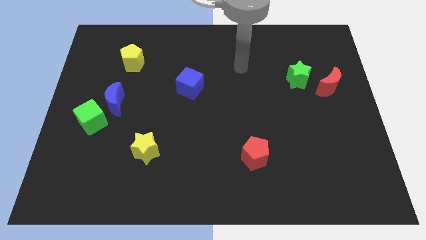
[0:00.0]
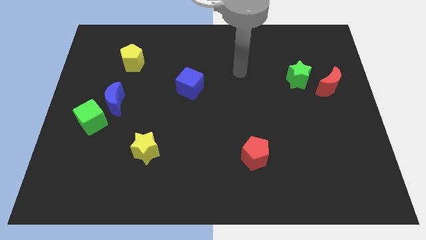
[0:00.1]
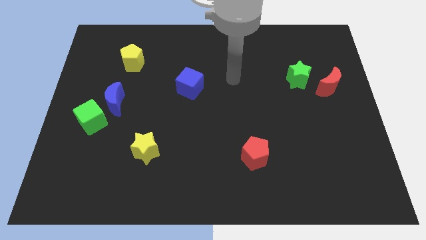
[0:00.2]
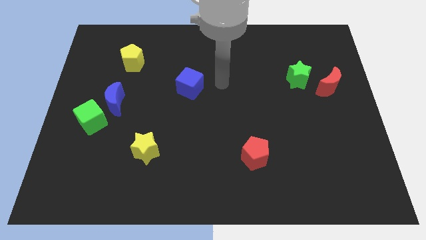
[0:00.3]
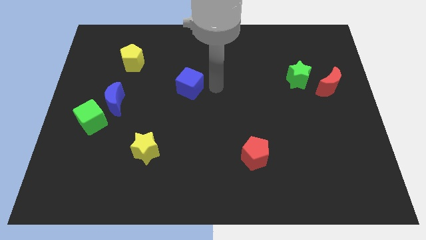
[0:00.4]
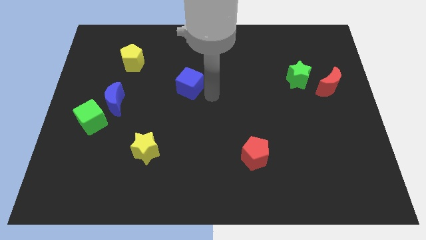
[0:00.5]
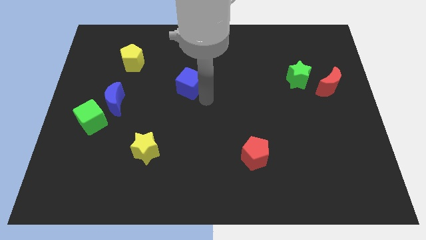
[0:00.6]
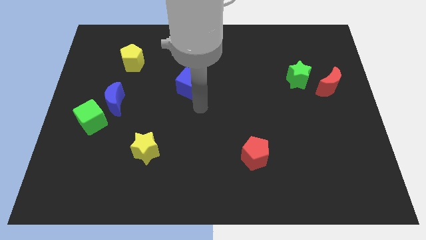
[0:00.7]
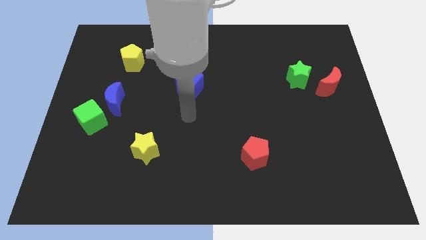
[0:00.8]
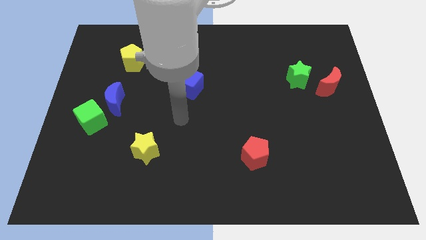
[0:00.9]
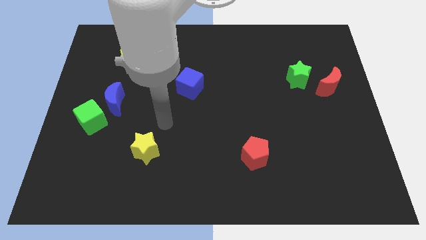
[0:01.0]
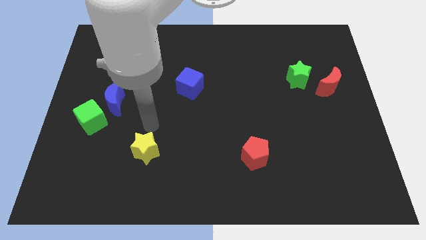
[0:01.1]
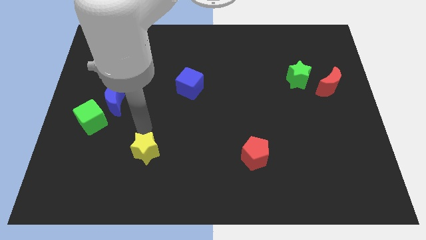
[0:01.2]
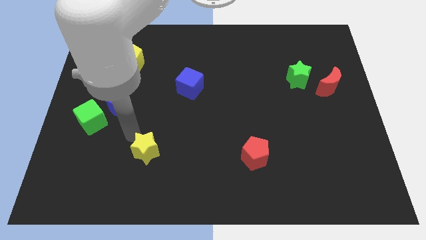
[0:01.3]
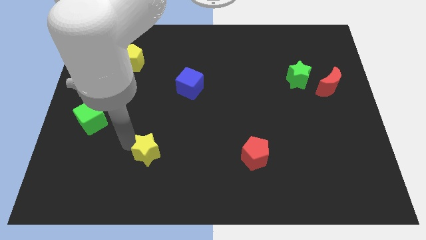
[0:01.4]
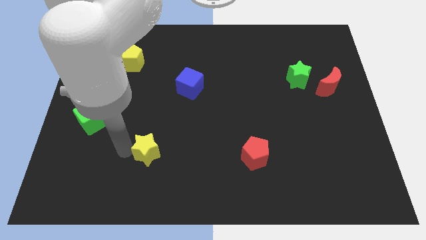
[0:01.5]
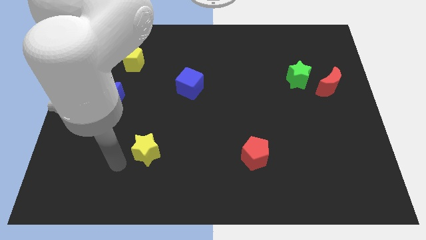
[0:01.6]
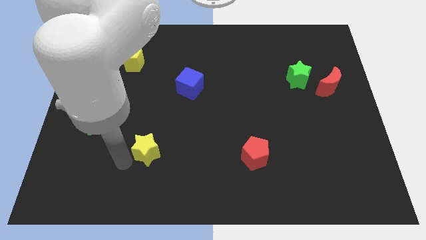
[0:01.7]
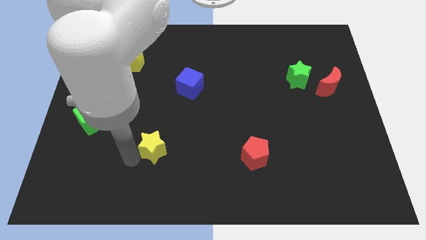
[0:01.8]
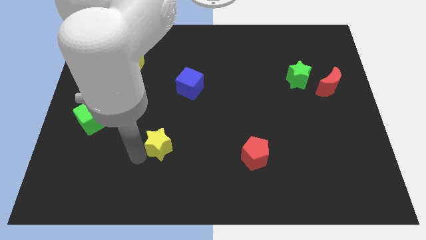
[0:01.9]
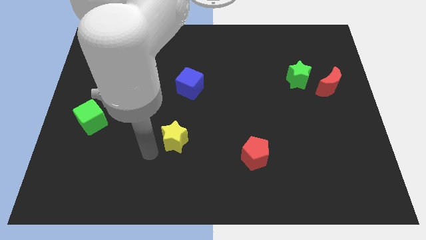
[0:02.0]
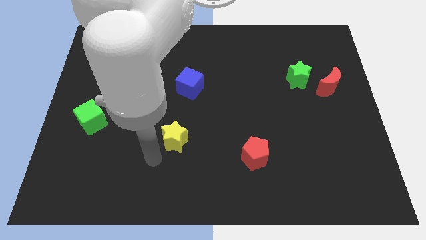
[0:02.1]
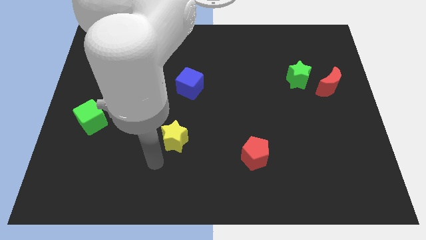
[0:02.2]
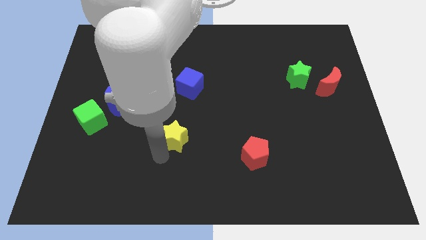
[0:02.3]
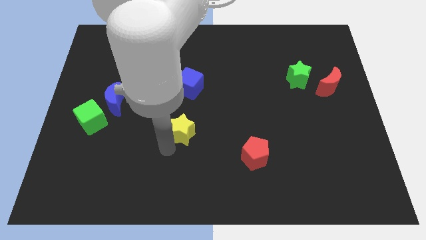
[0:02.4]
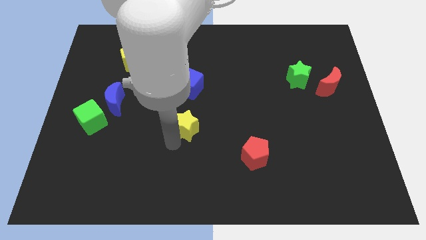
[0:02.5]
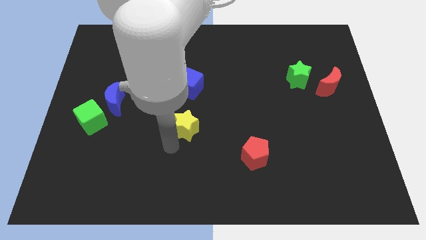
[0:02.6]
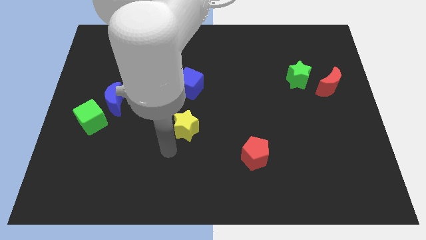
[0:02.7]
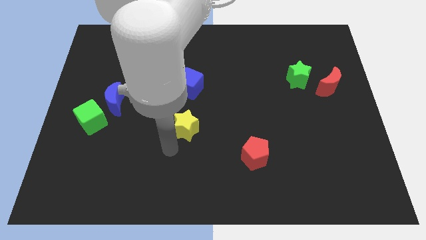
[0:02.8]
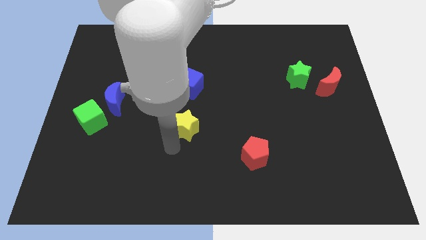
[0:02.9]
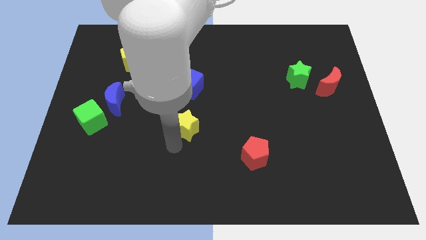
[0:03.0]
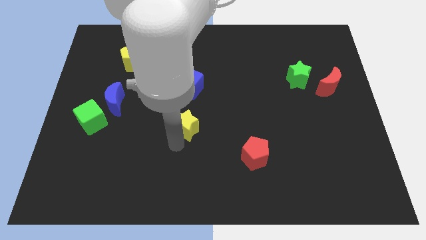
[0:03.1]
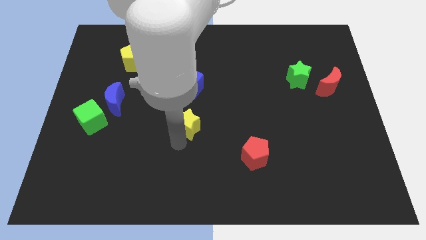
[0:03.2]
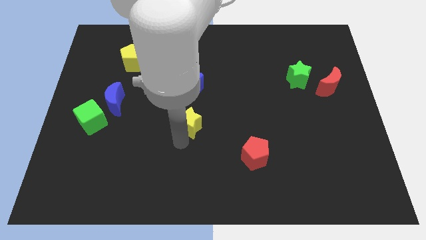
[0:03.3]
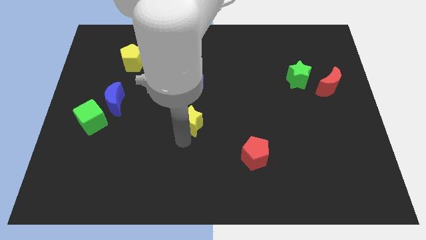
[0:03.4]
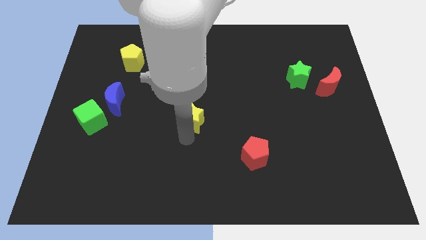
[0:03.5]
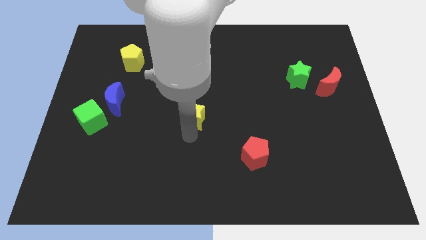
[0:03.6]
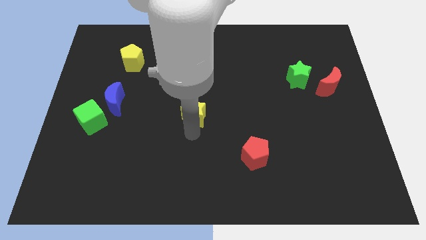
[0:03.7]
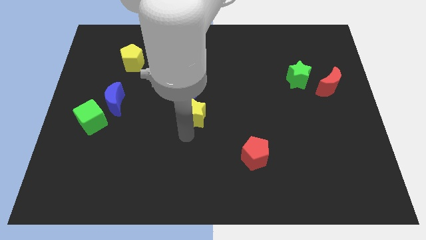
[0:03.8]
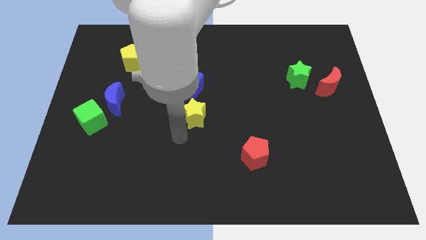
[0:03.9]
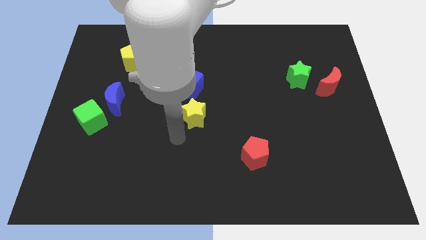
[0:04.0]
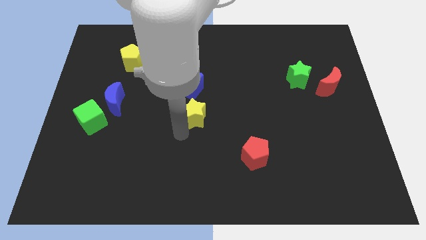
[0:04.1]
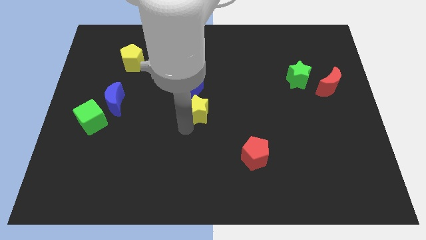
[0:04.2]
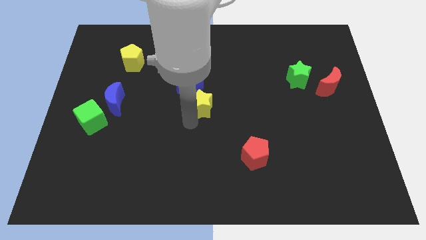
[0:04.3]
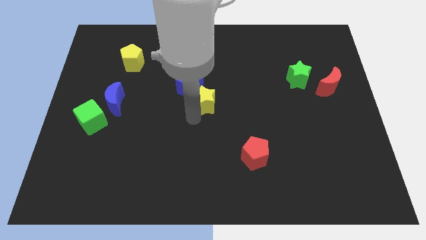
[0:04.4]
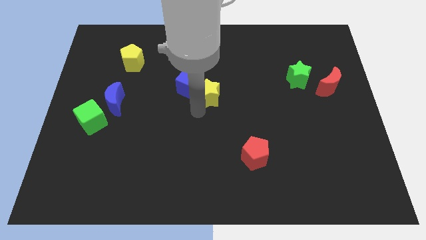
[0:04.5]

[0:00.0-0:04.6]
push the yellow star up and right diagonally

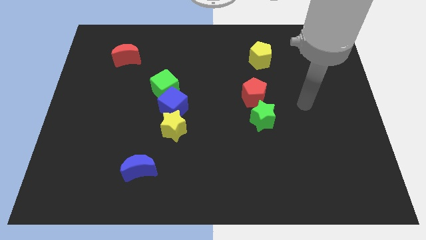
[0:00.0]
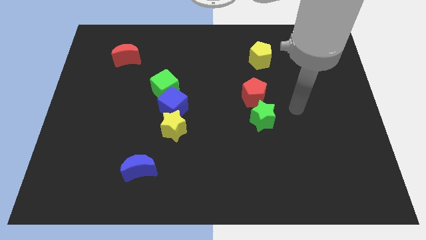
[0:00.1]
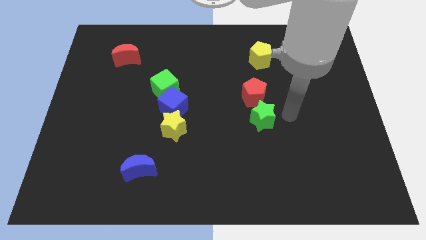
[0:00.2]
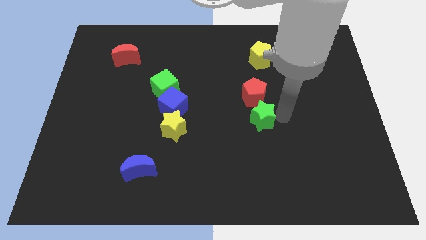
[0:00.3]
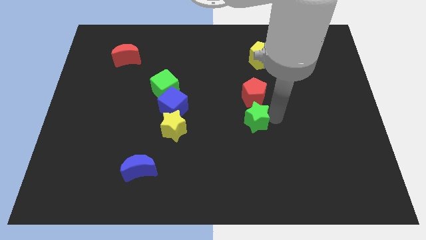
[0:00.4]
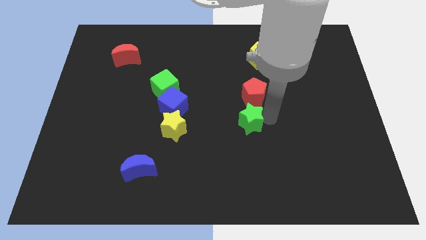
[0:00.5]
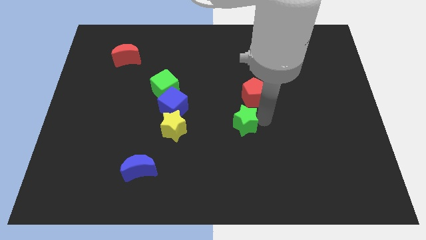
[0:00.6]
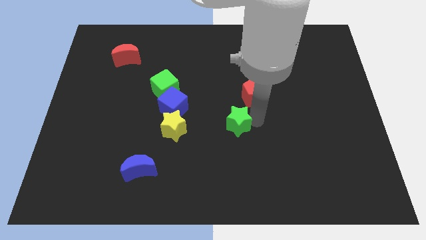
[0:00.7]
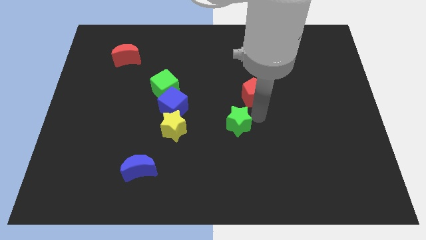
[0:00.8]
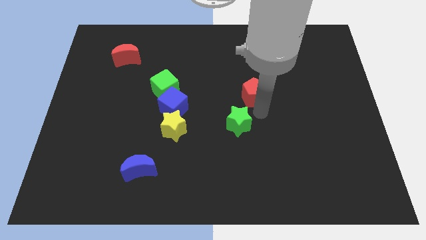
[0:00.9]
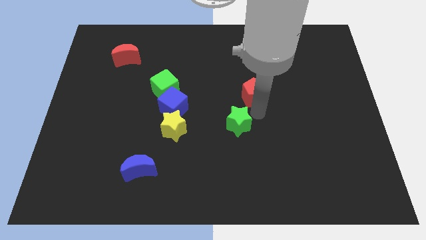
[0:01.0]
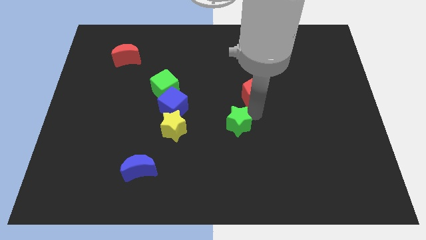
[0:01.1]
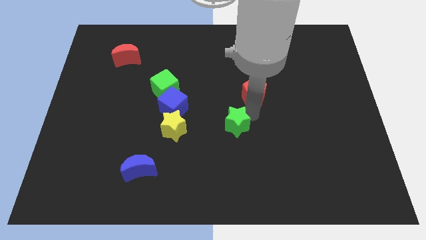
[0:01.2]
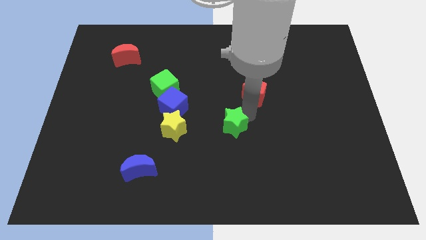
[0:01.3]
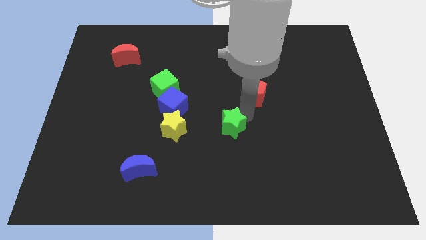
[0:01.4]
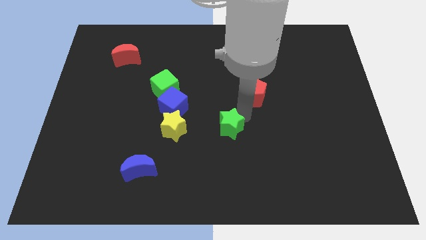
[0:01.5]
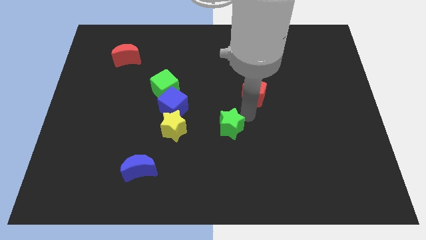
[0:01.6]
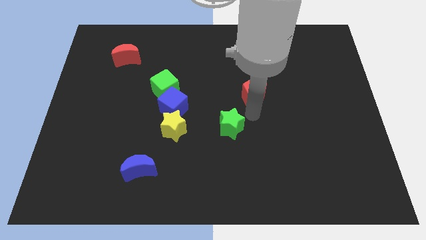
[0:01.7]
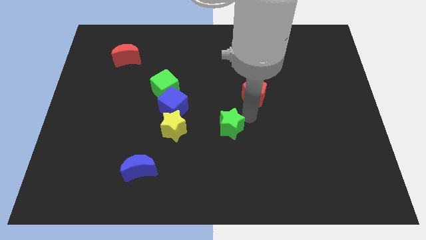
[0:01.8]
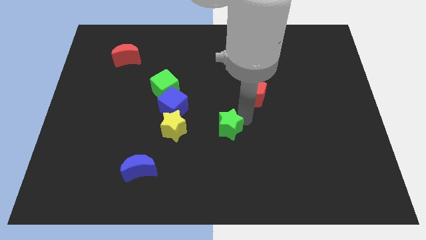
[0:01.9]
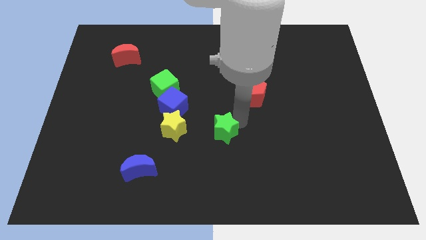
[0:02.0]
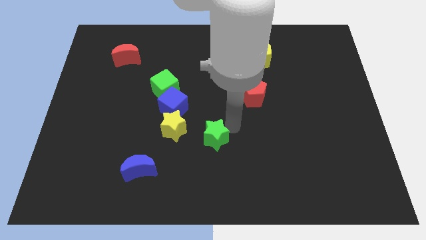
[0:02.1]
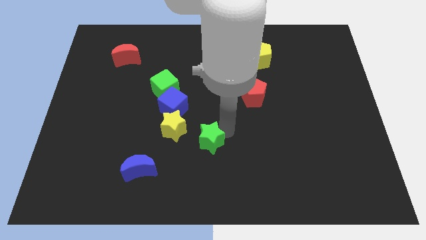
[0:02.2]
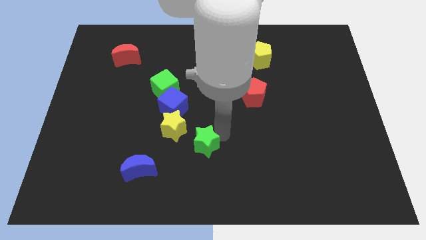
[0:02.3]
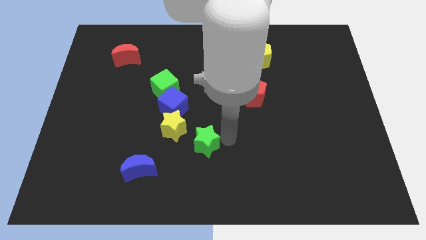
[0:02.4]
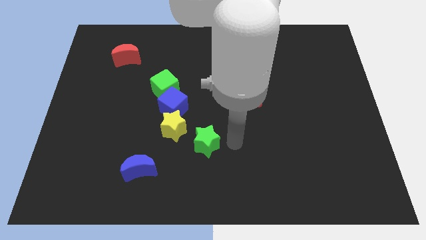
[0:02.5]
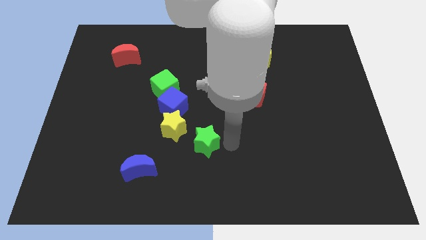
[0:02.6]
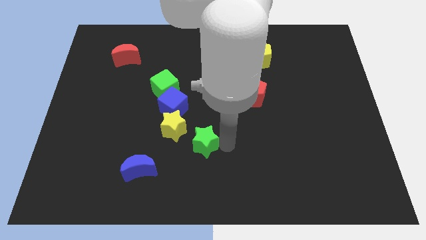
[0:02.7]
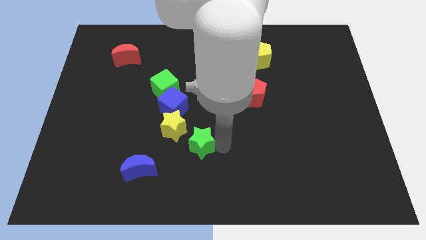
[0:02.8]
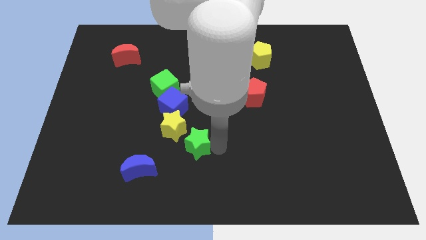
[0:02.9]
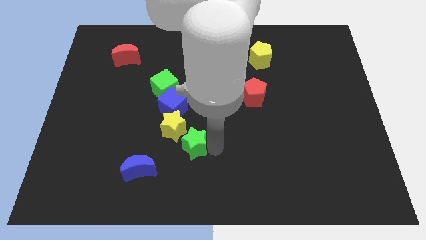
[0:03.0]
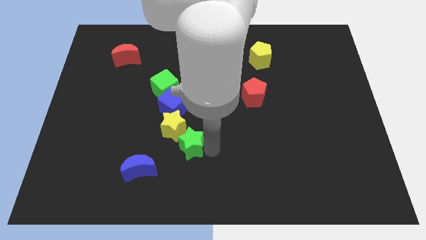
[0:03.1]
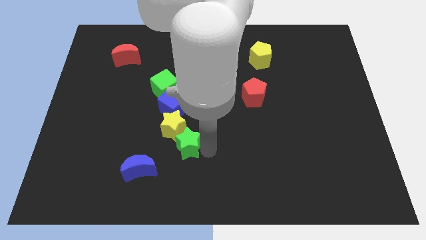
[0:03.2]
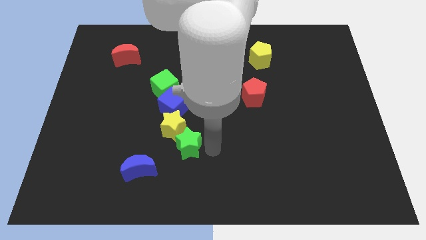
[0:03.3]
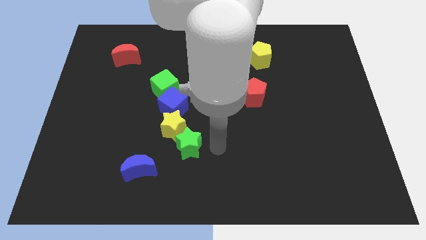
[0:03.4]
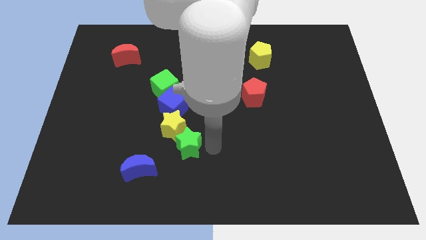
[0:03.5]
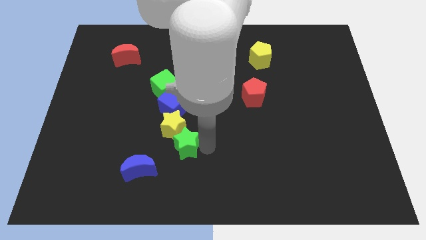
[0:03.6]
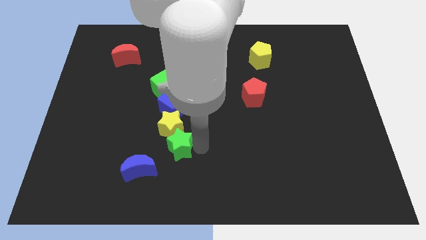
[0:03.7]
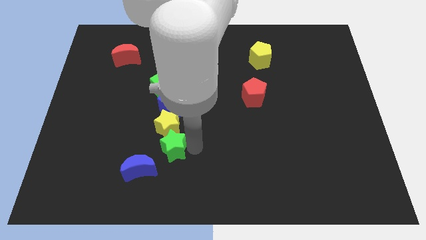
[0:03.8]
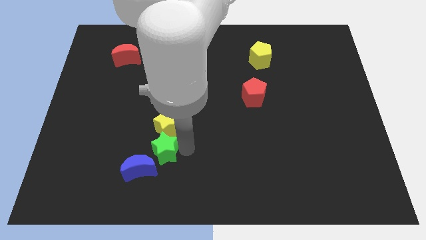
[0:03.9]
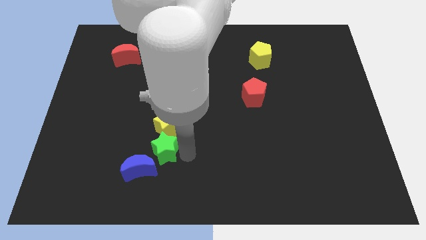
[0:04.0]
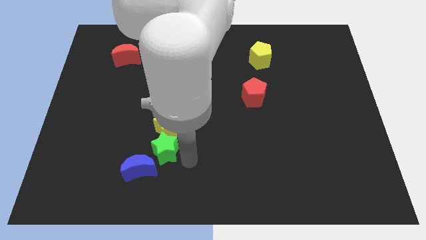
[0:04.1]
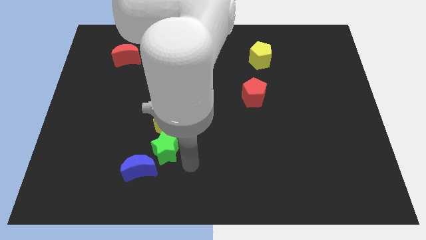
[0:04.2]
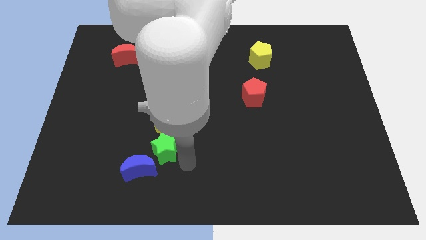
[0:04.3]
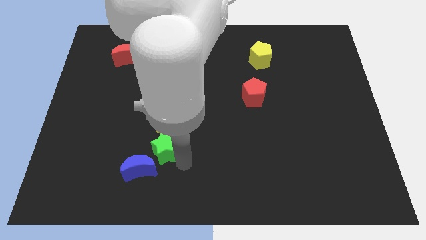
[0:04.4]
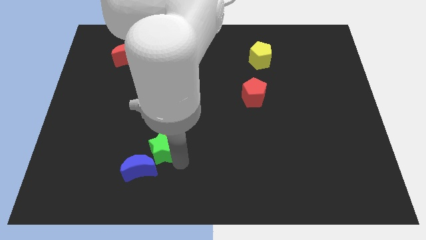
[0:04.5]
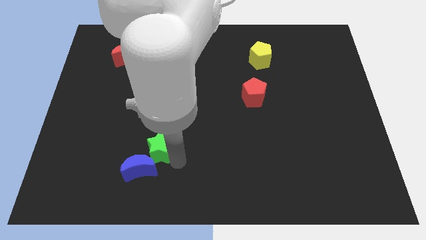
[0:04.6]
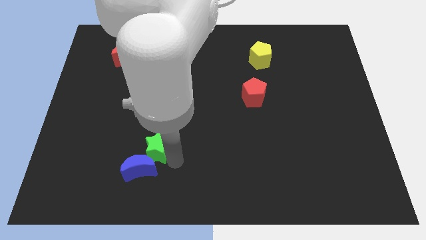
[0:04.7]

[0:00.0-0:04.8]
move the green star to the left
